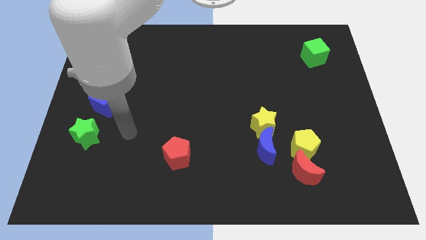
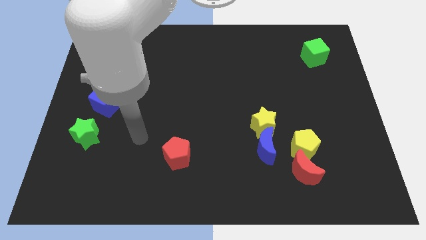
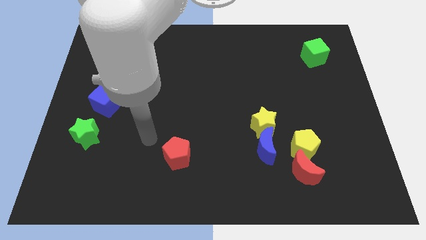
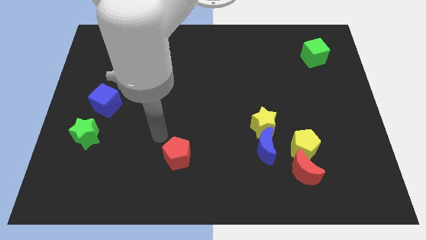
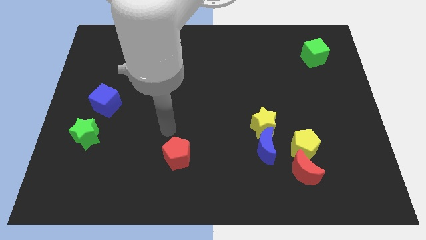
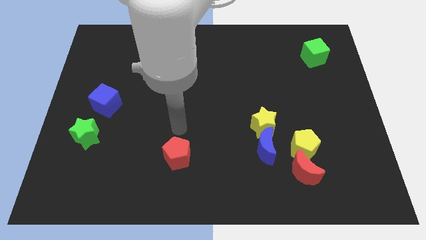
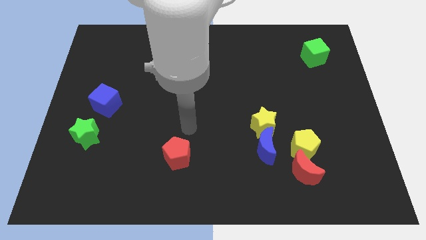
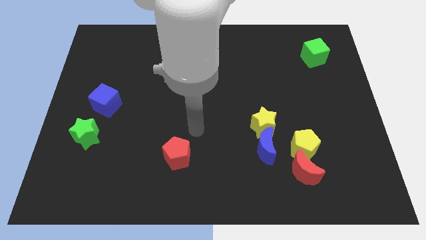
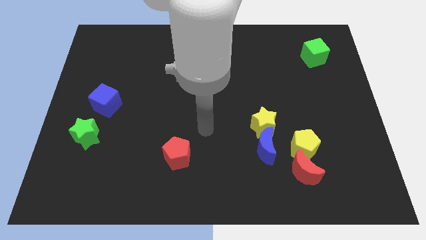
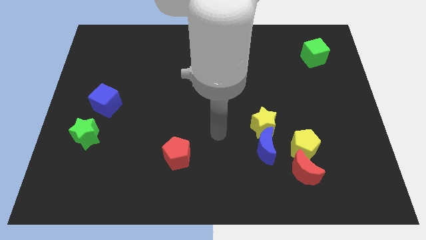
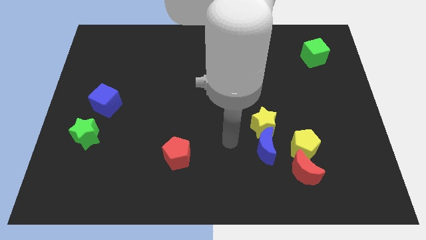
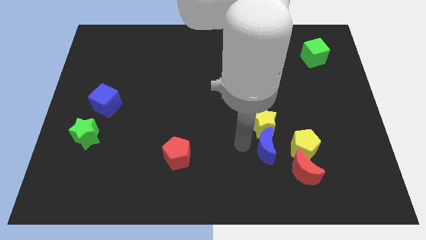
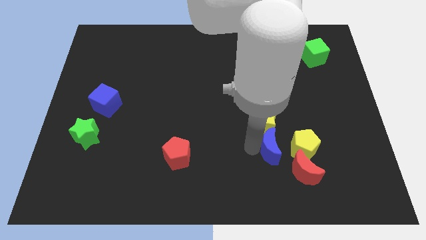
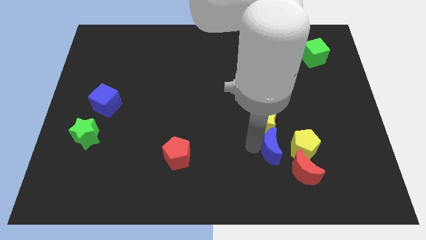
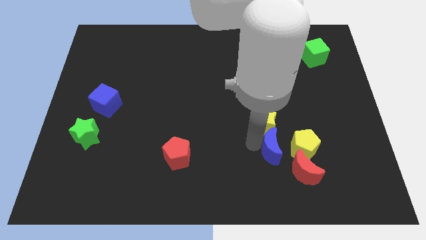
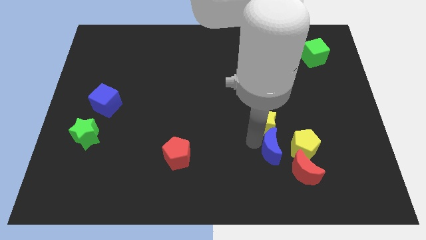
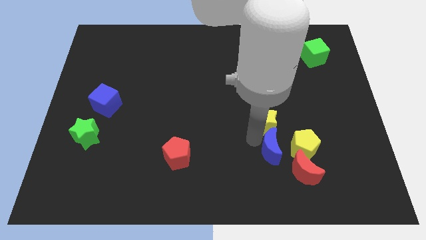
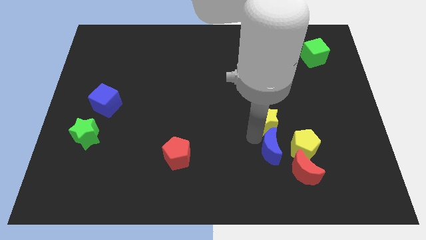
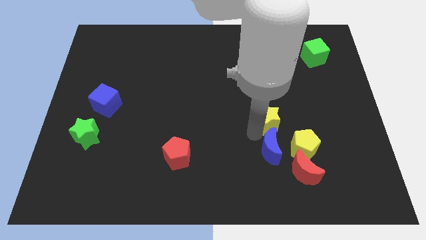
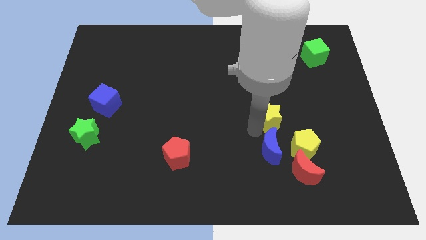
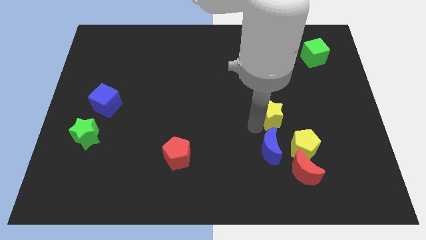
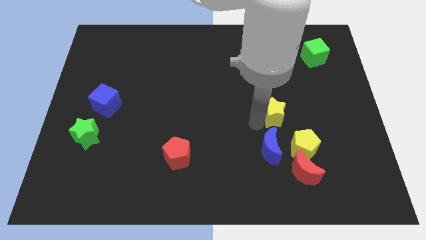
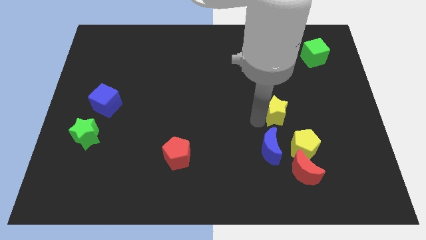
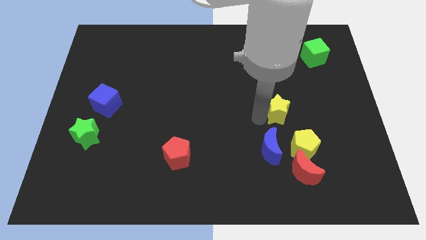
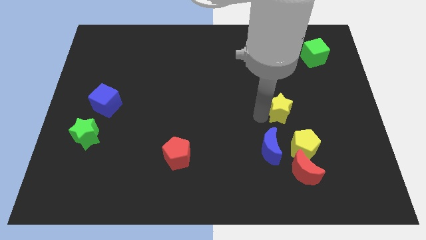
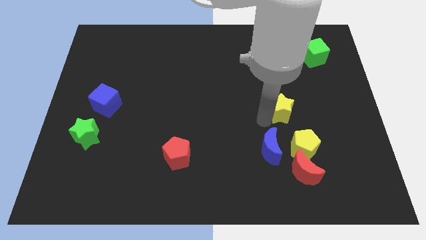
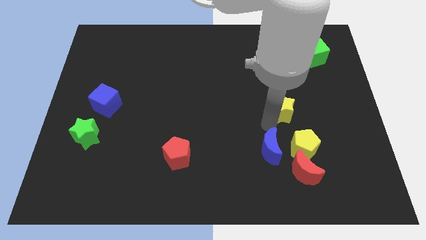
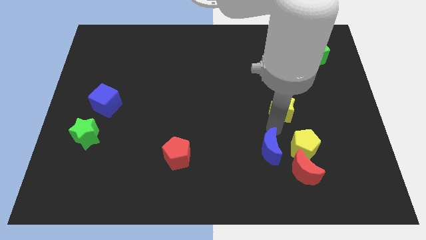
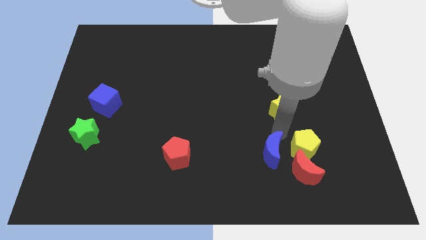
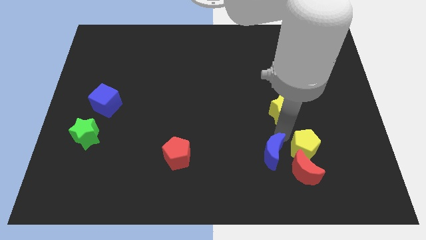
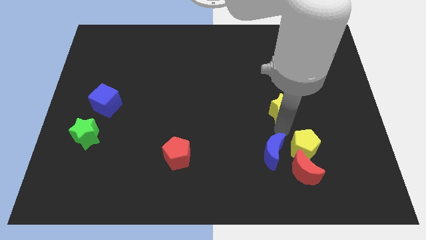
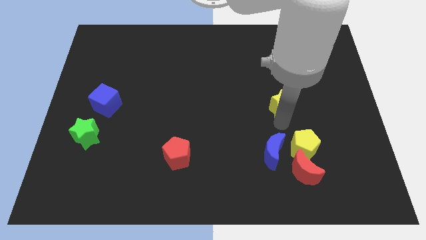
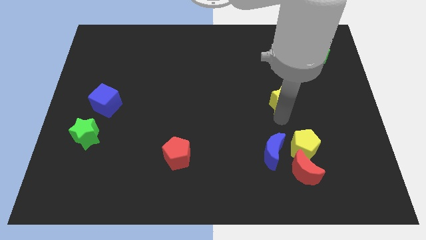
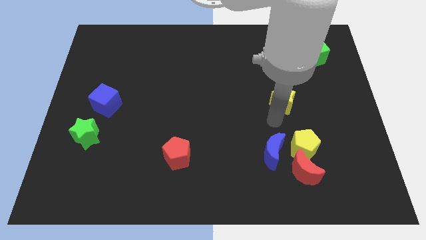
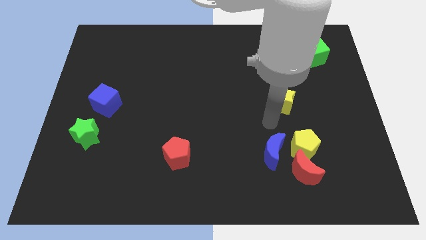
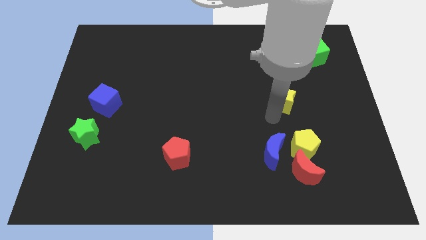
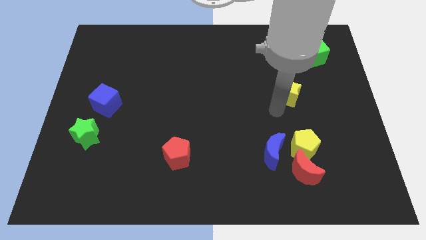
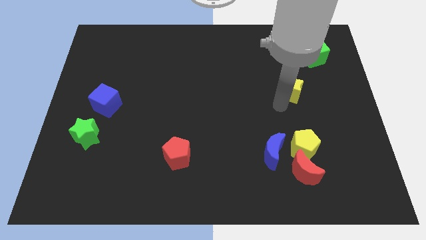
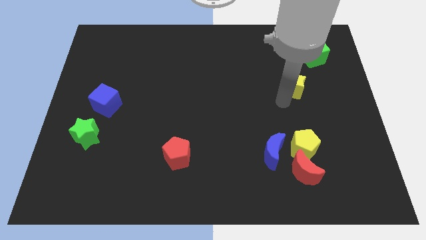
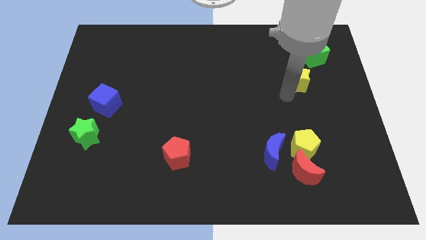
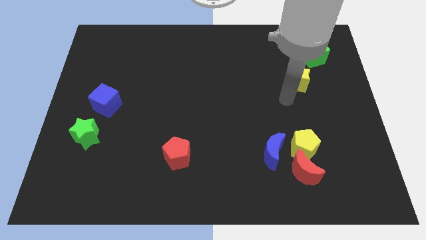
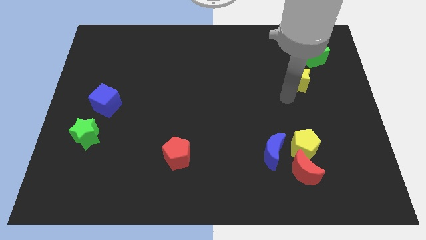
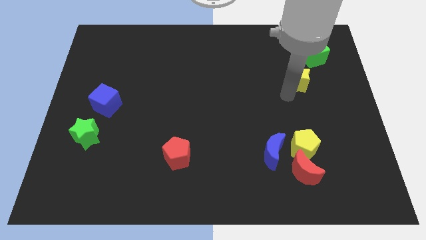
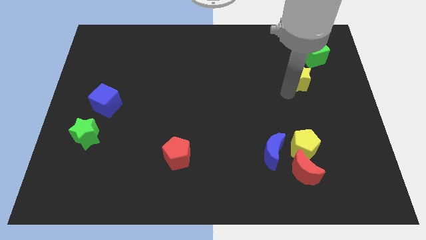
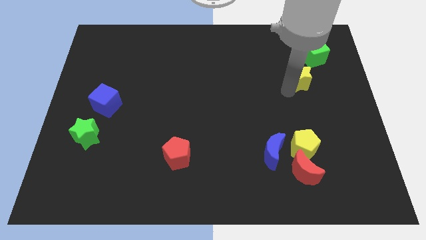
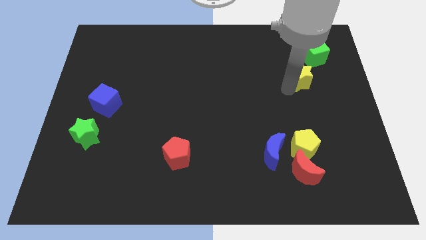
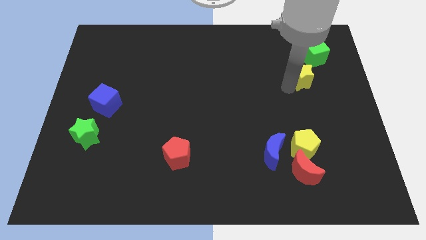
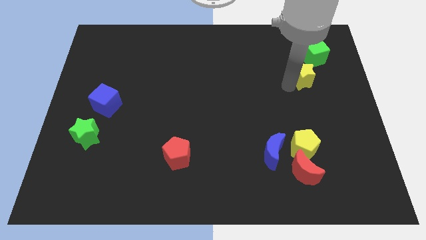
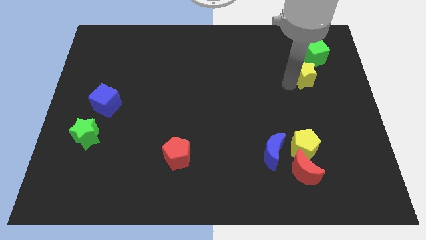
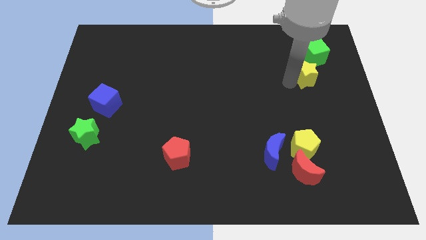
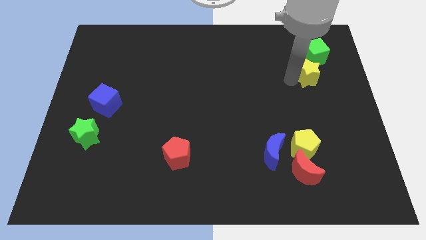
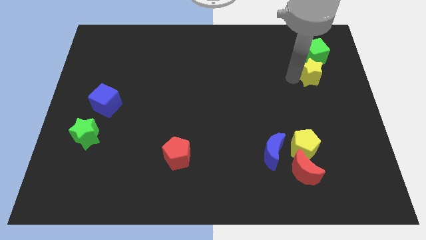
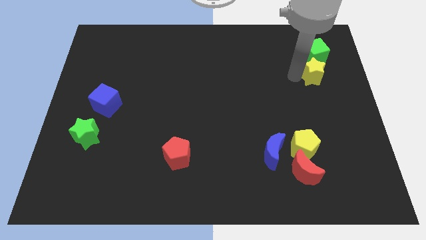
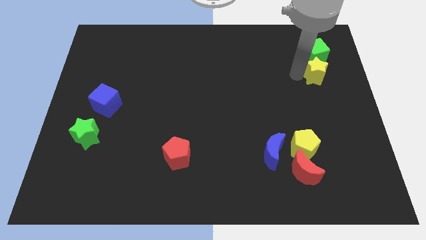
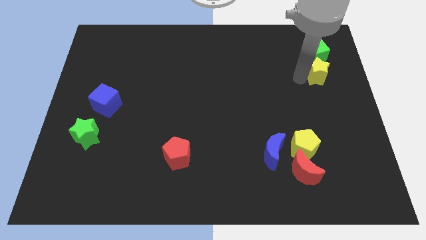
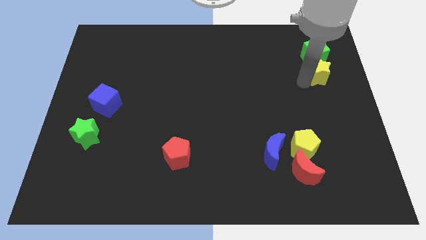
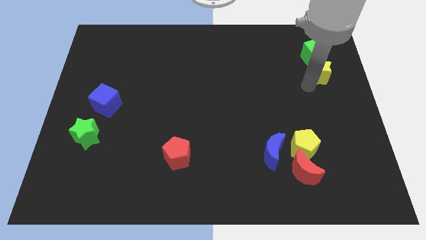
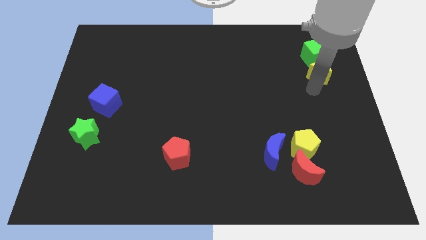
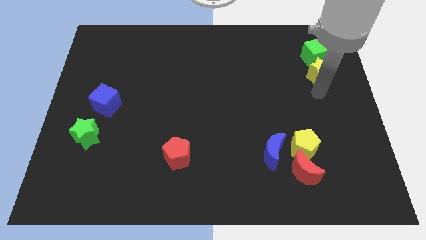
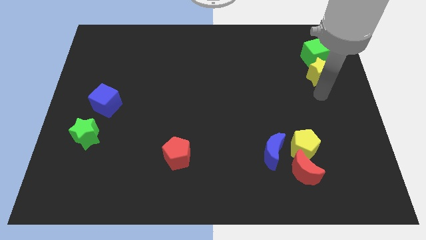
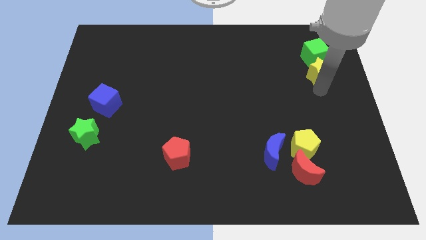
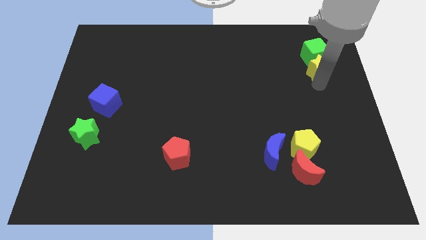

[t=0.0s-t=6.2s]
slide the yellow star next to the green cube

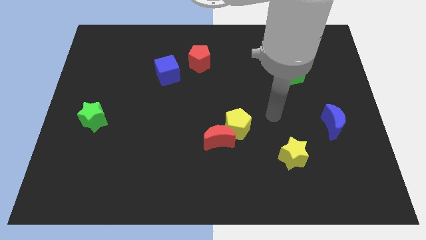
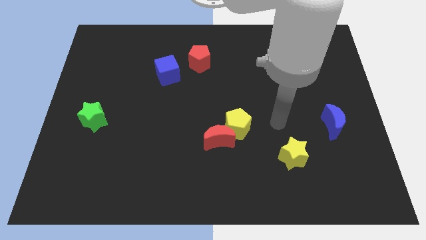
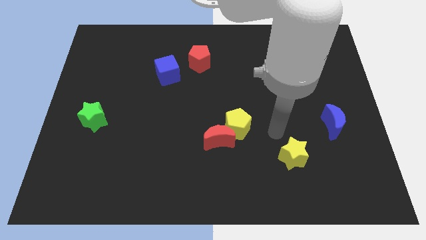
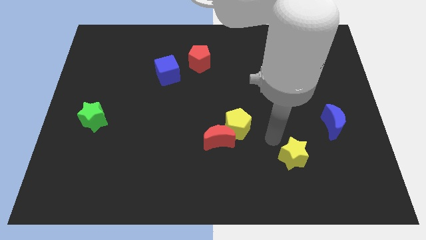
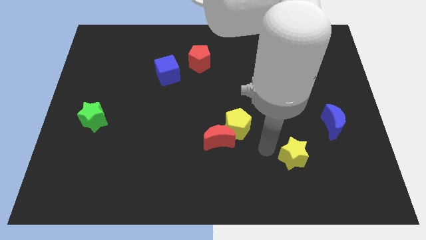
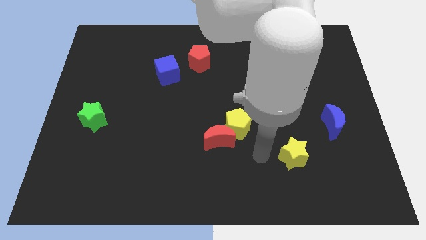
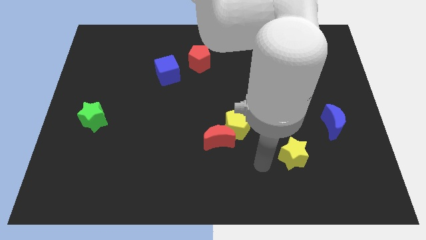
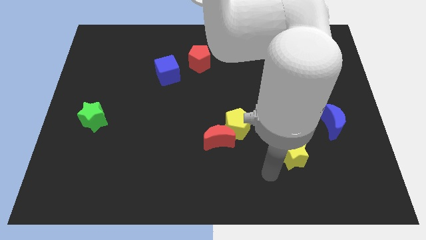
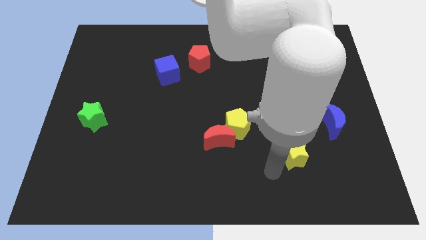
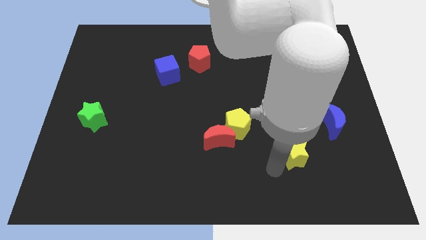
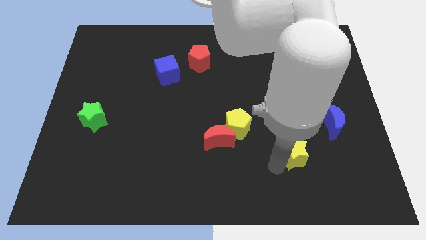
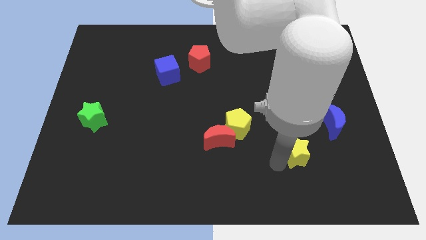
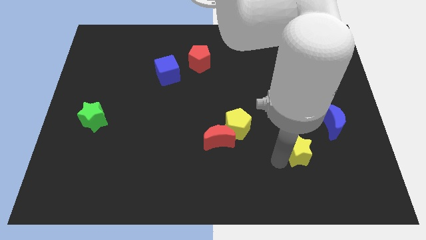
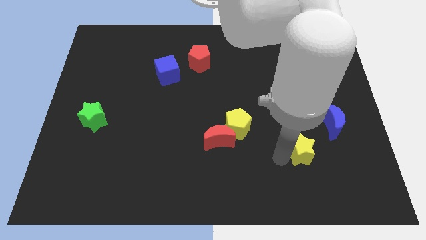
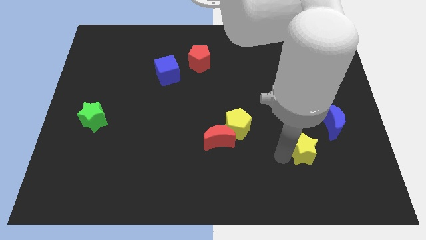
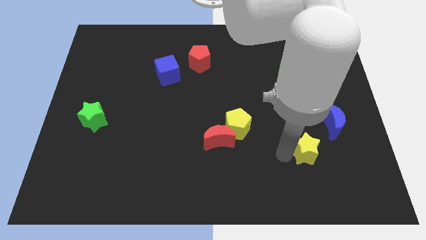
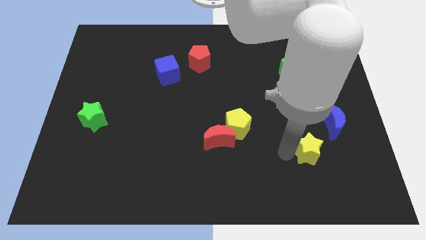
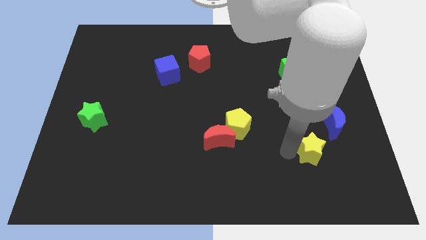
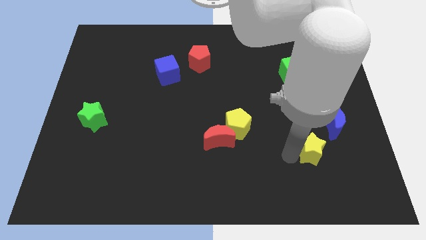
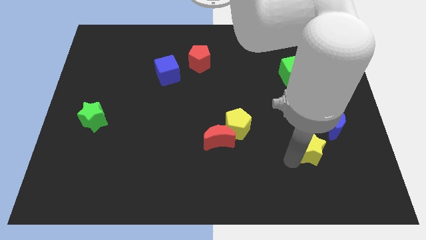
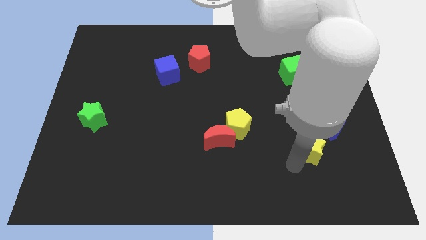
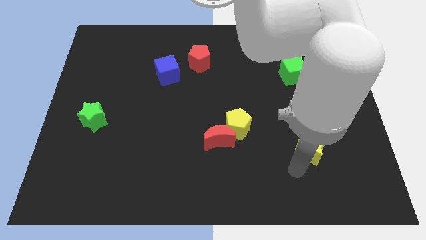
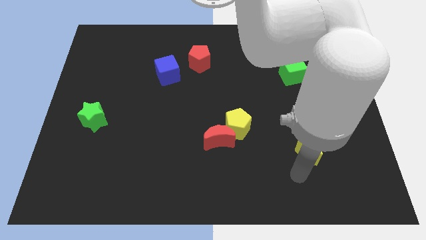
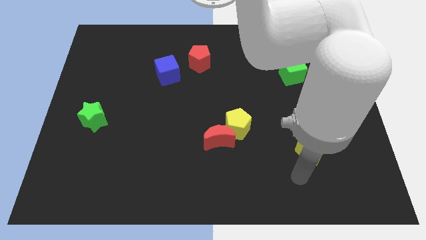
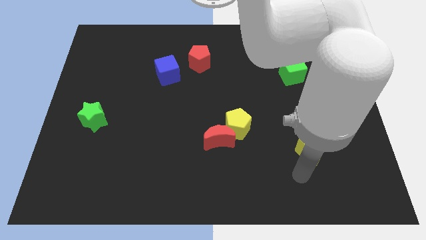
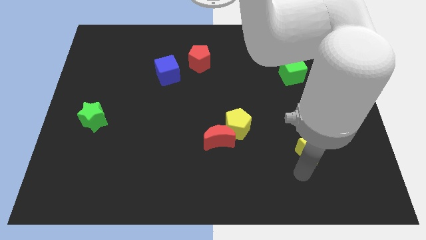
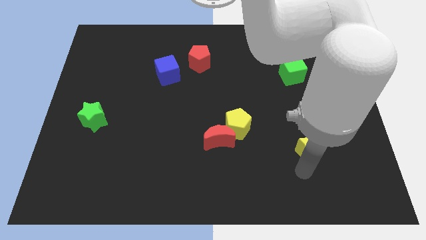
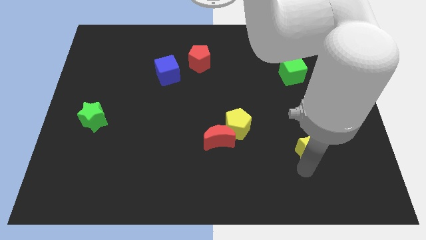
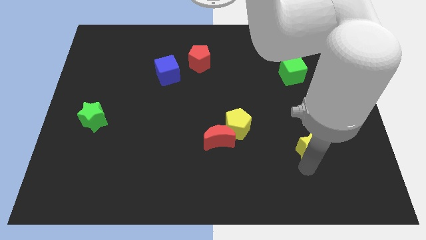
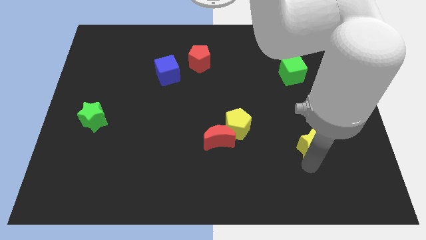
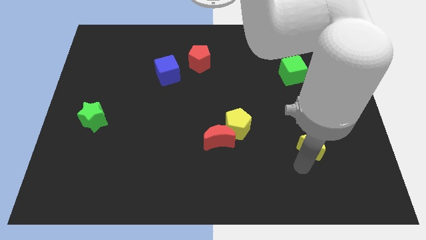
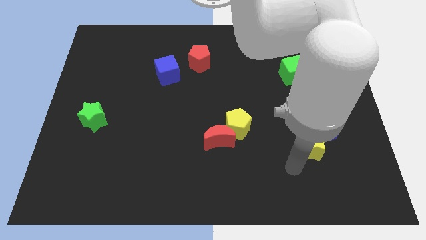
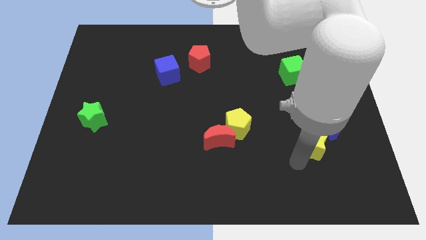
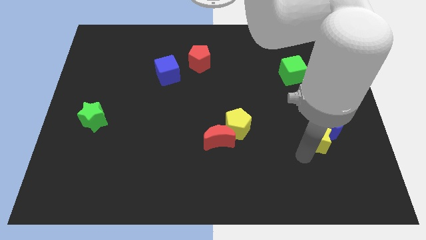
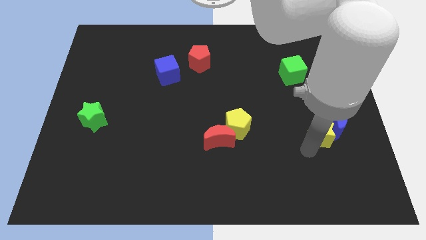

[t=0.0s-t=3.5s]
push the yellow star next to the blue moon
